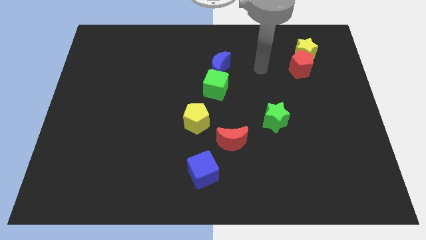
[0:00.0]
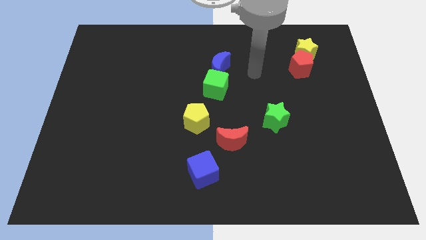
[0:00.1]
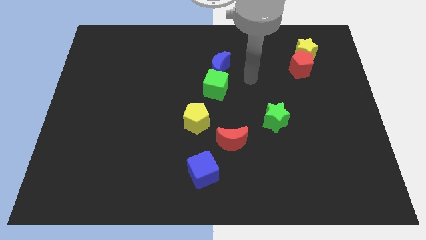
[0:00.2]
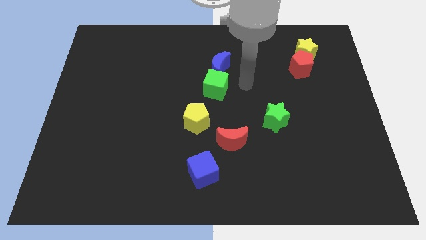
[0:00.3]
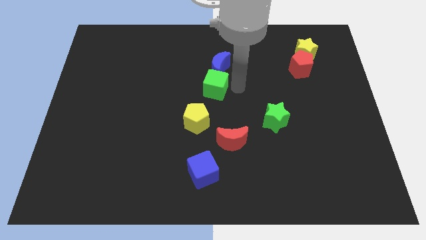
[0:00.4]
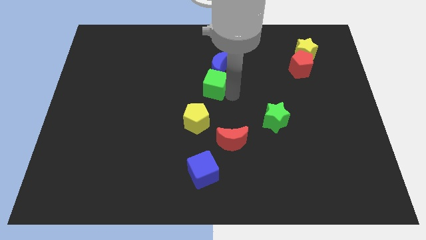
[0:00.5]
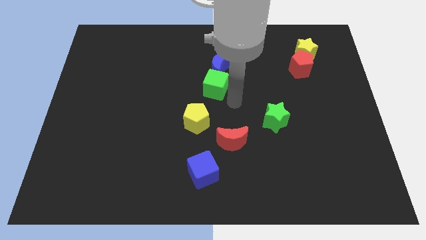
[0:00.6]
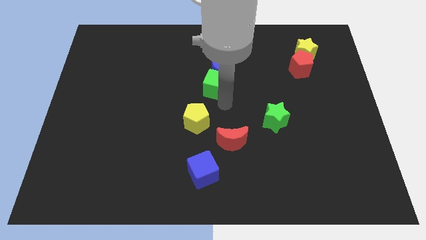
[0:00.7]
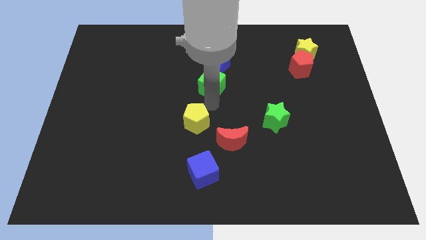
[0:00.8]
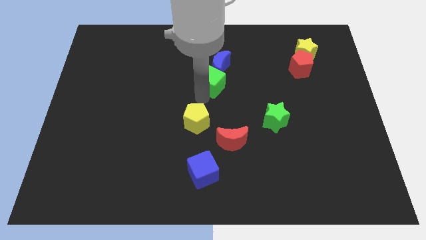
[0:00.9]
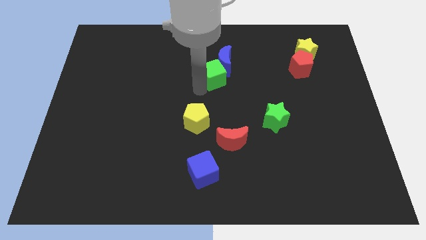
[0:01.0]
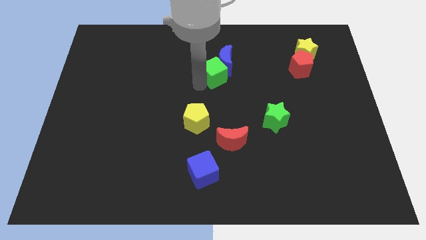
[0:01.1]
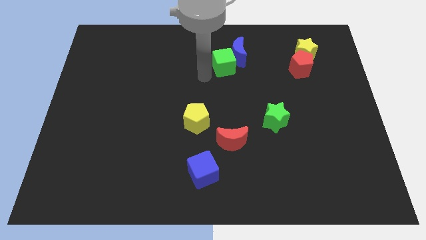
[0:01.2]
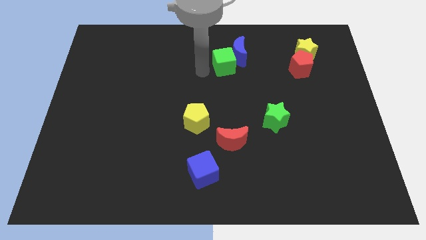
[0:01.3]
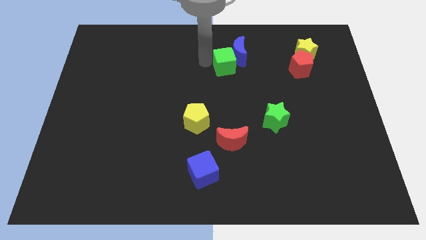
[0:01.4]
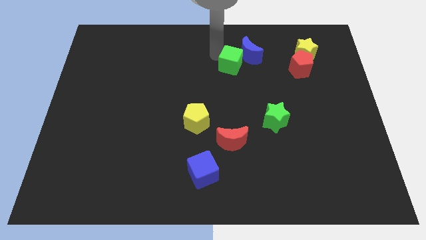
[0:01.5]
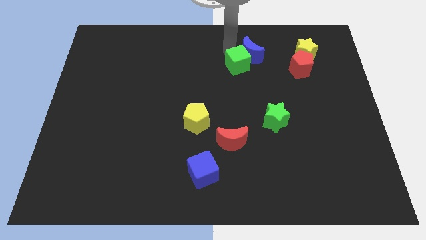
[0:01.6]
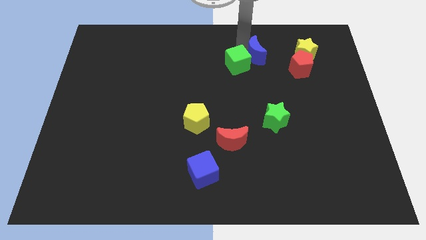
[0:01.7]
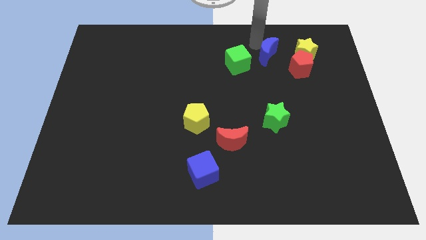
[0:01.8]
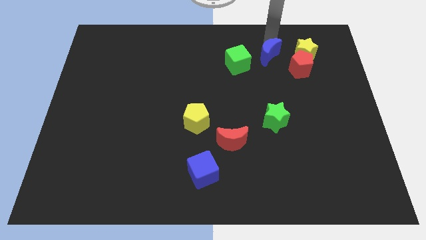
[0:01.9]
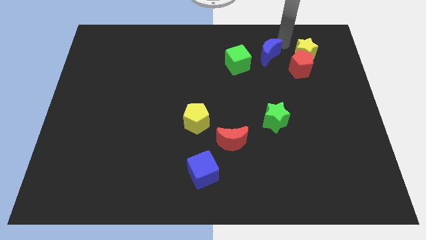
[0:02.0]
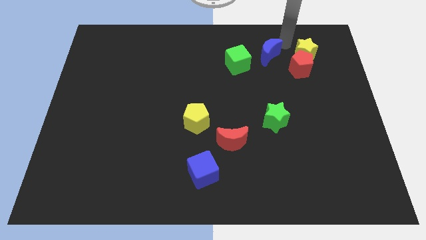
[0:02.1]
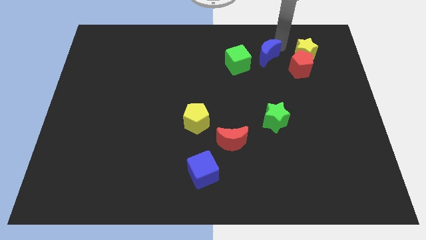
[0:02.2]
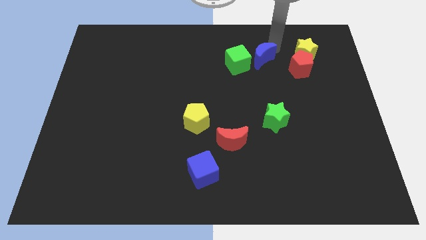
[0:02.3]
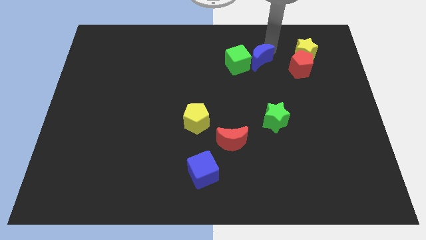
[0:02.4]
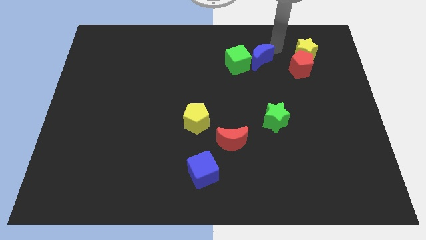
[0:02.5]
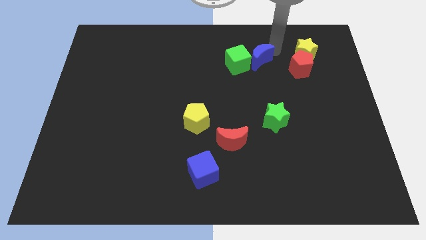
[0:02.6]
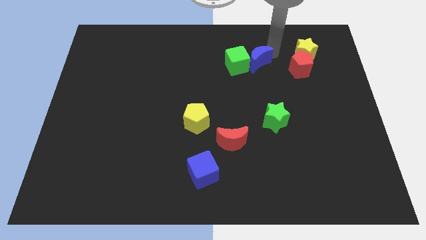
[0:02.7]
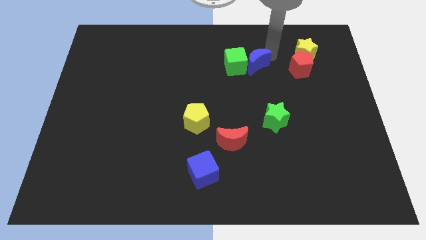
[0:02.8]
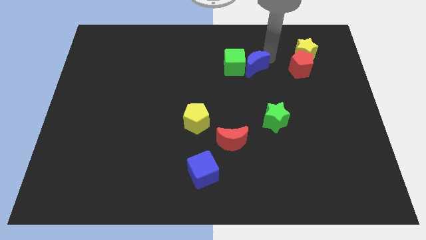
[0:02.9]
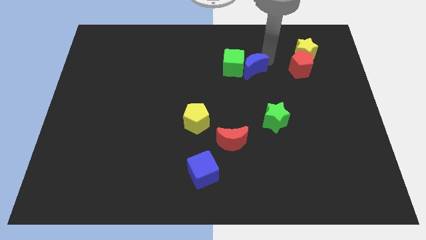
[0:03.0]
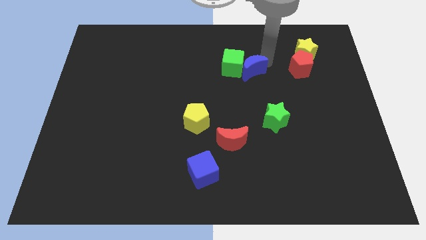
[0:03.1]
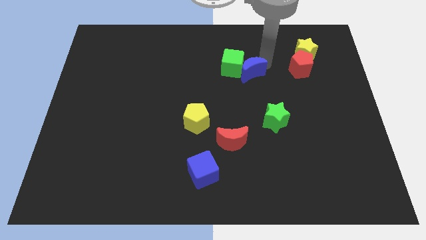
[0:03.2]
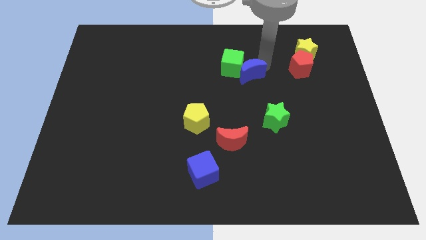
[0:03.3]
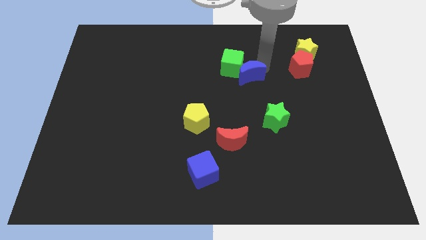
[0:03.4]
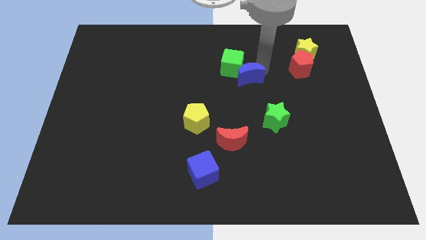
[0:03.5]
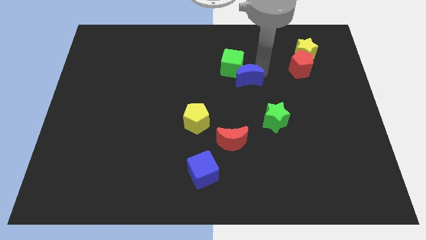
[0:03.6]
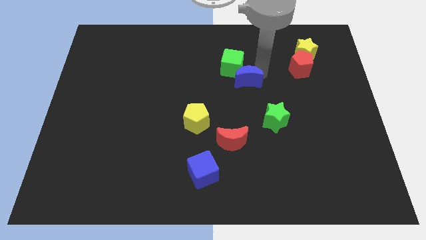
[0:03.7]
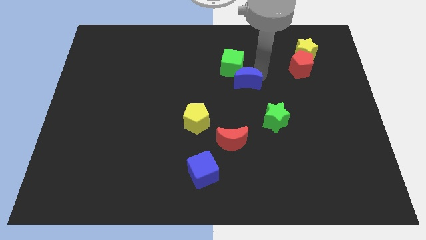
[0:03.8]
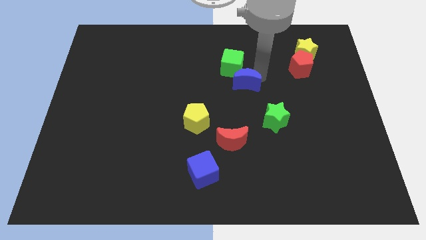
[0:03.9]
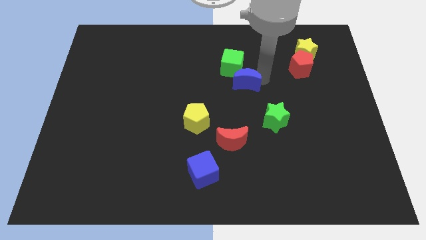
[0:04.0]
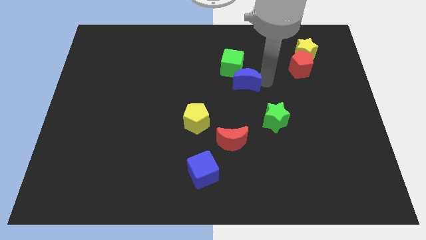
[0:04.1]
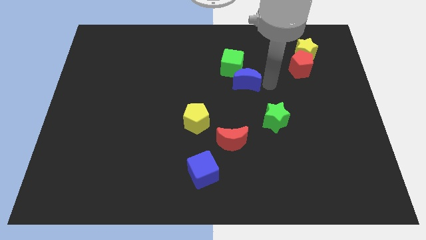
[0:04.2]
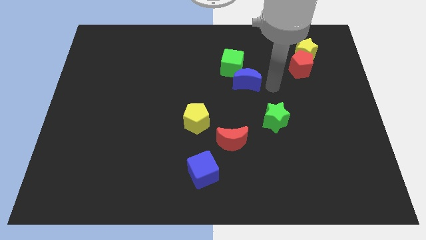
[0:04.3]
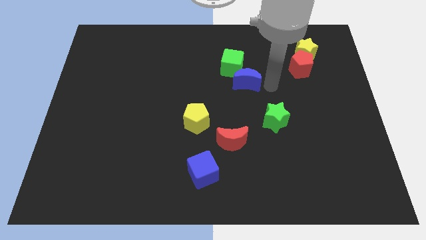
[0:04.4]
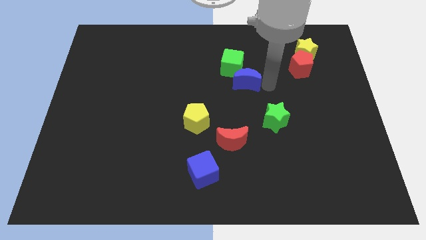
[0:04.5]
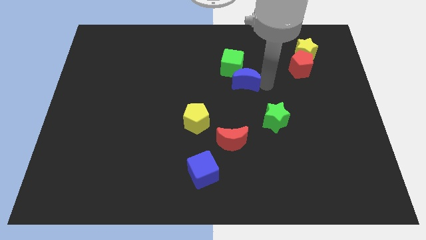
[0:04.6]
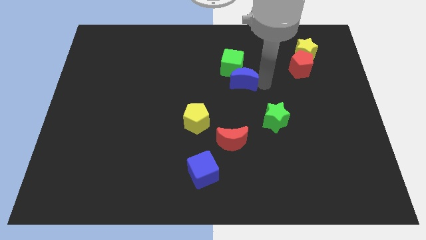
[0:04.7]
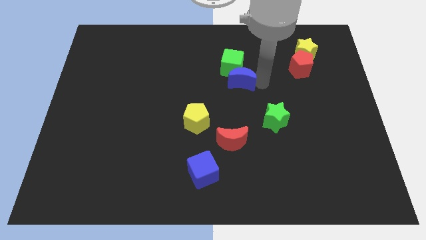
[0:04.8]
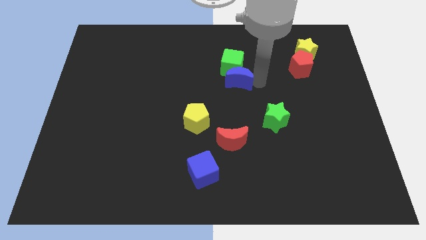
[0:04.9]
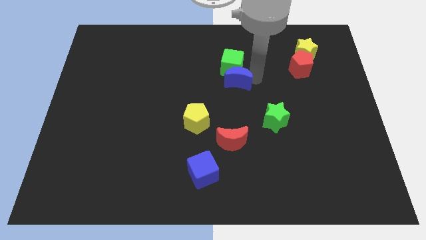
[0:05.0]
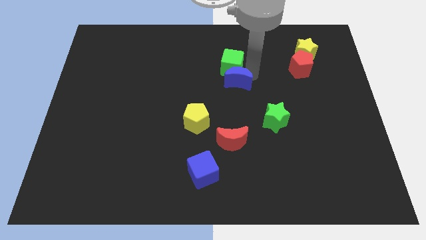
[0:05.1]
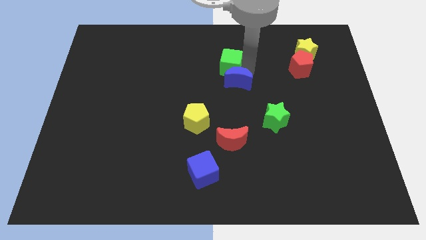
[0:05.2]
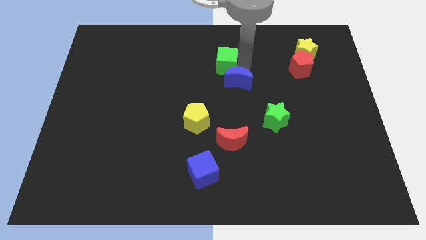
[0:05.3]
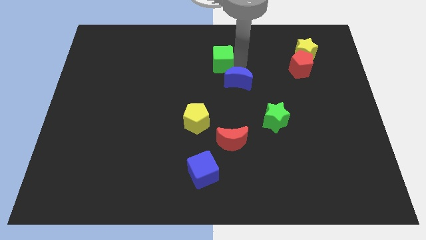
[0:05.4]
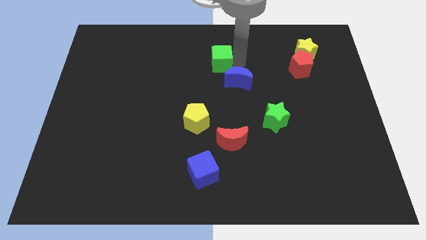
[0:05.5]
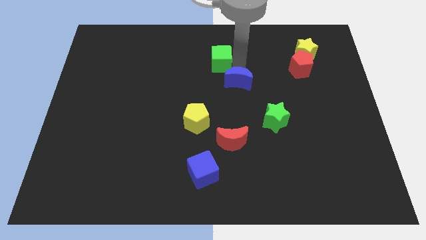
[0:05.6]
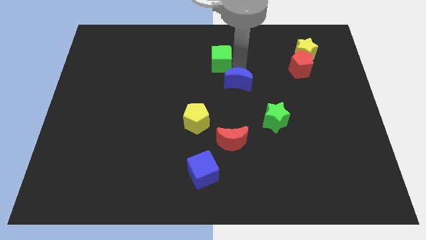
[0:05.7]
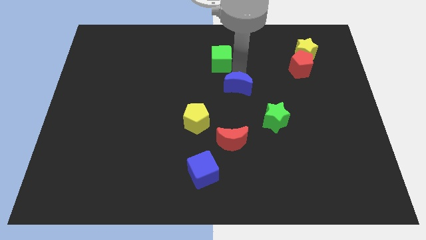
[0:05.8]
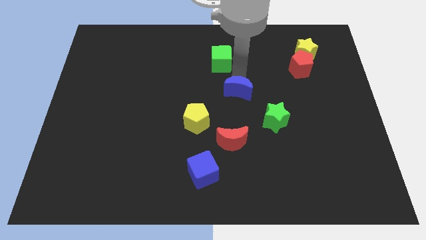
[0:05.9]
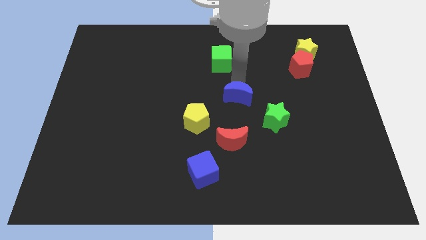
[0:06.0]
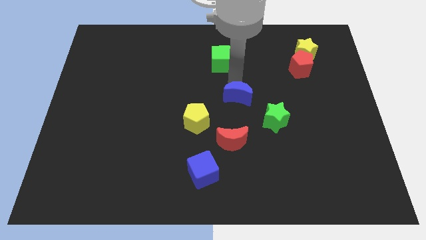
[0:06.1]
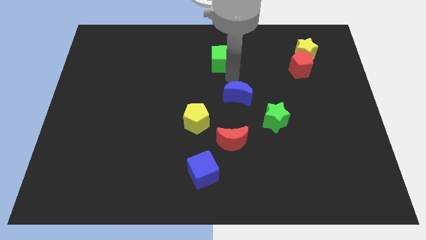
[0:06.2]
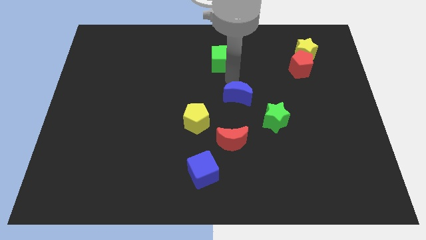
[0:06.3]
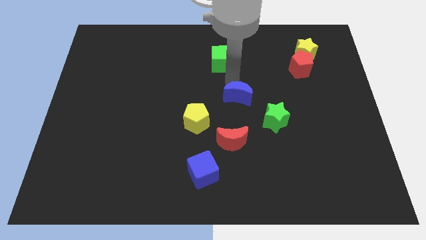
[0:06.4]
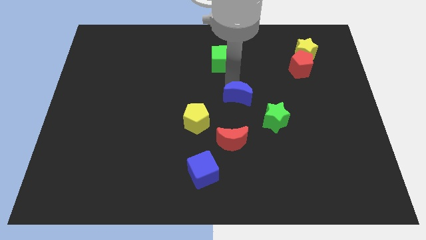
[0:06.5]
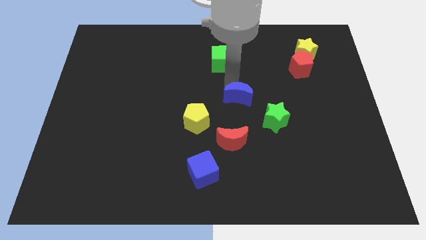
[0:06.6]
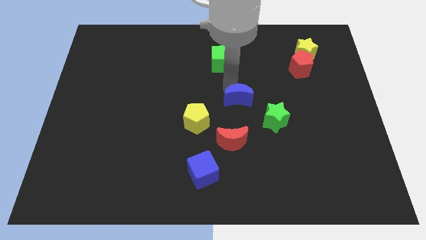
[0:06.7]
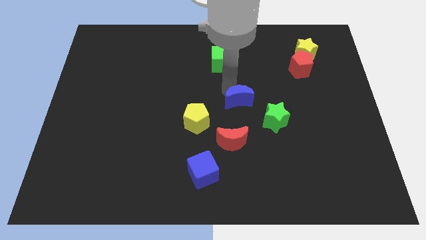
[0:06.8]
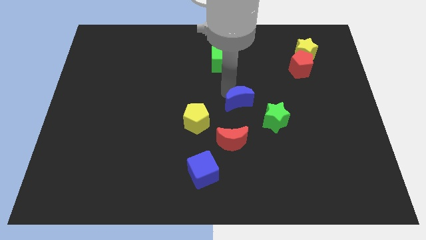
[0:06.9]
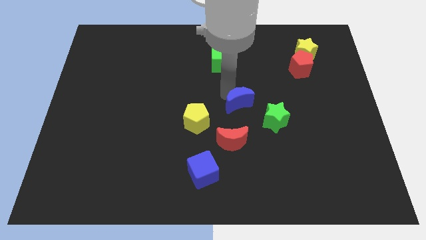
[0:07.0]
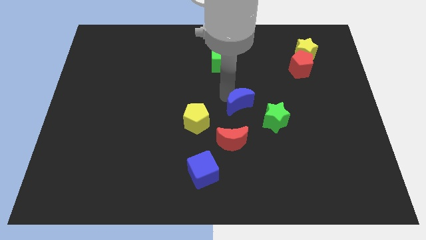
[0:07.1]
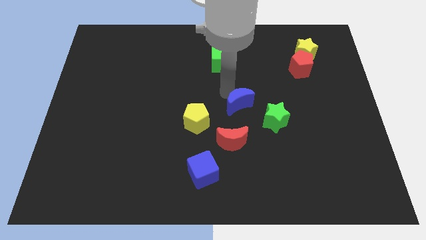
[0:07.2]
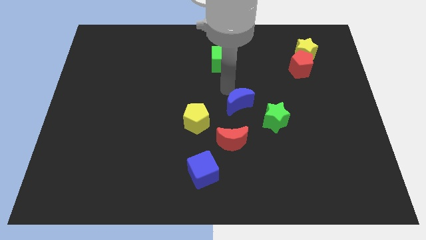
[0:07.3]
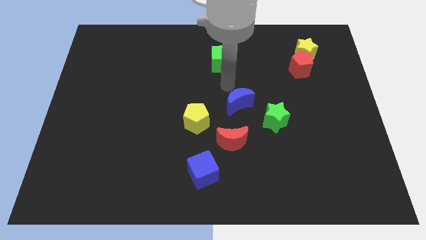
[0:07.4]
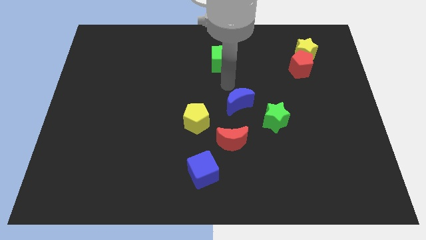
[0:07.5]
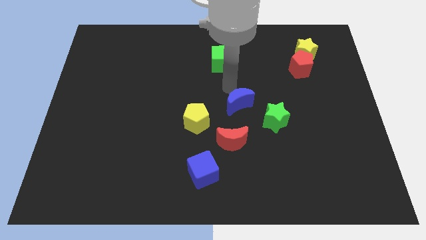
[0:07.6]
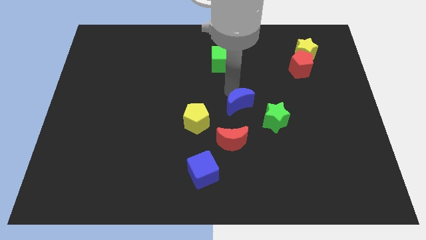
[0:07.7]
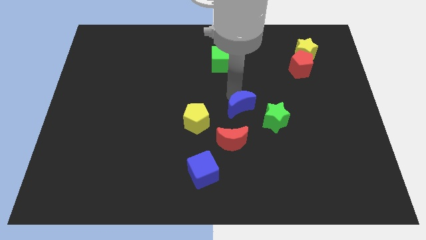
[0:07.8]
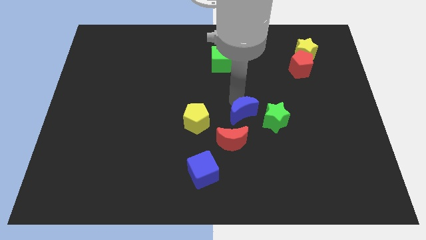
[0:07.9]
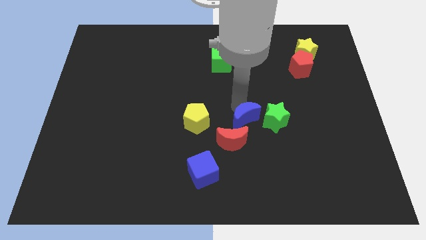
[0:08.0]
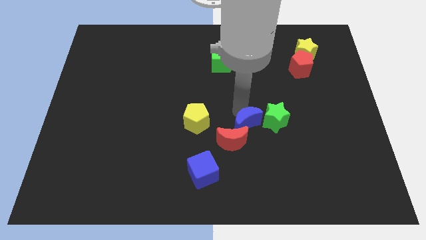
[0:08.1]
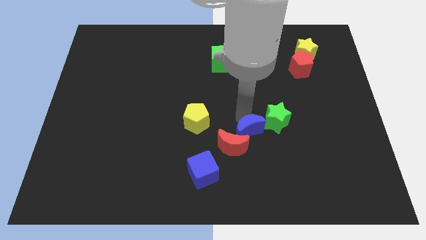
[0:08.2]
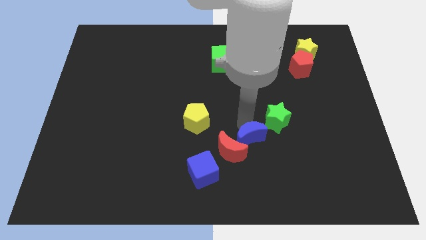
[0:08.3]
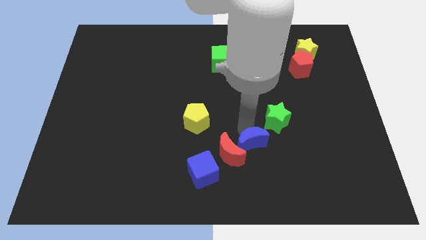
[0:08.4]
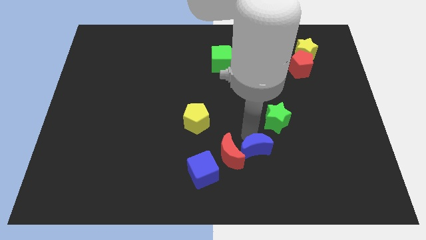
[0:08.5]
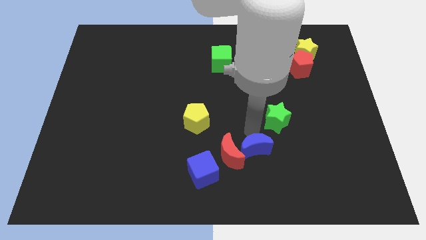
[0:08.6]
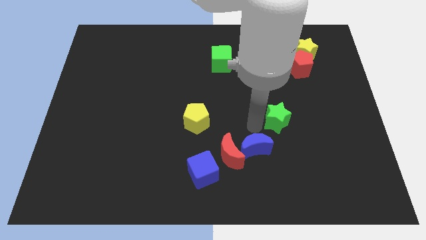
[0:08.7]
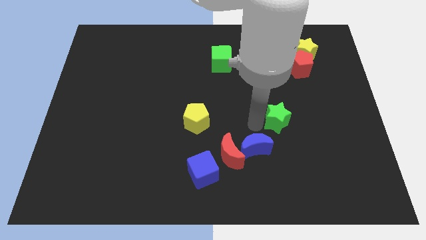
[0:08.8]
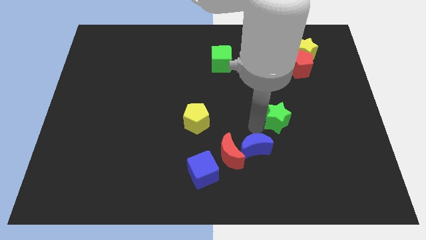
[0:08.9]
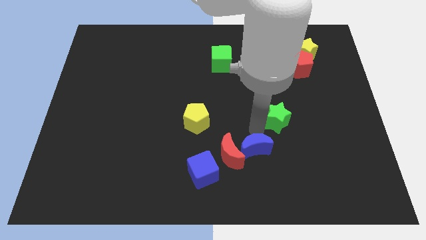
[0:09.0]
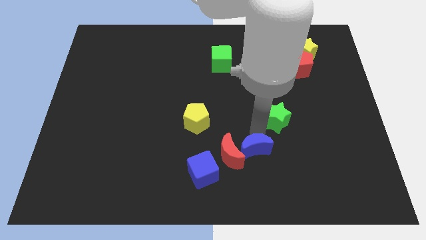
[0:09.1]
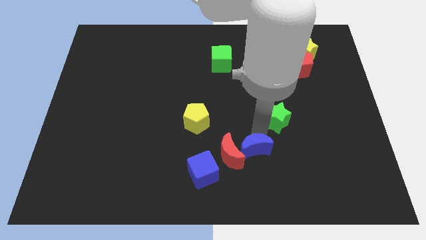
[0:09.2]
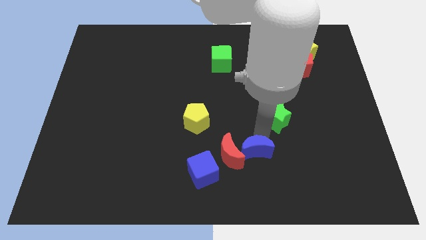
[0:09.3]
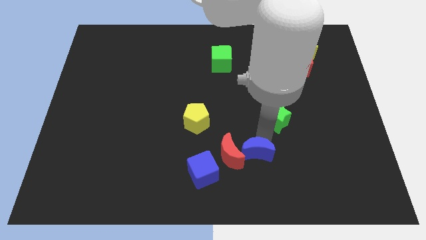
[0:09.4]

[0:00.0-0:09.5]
move the blue moon just right of the blue cube
